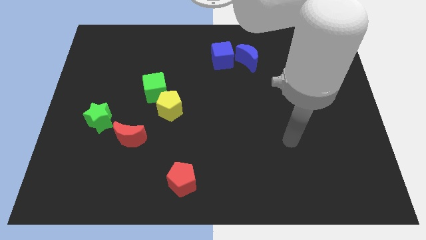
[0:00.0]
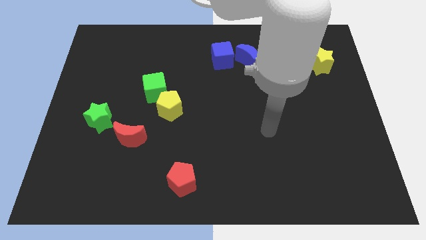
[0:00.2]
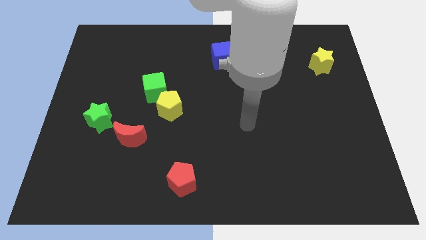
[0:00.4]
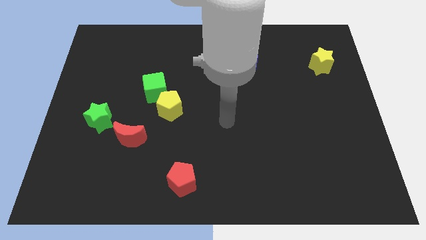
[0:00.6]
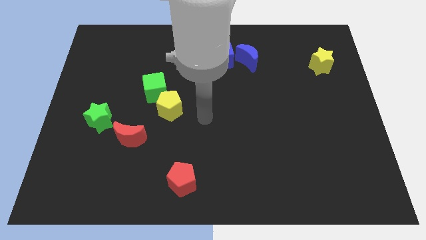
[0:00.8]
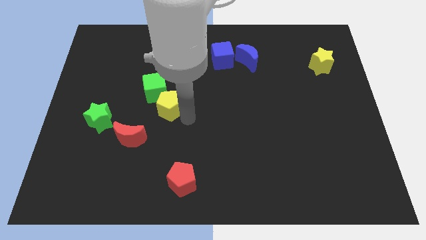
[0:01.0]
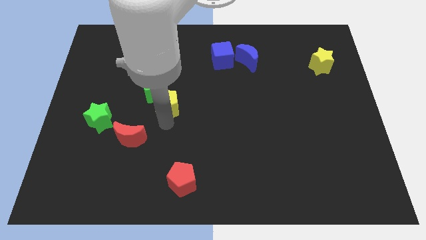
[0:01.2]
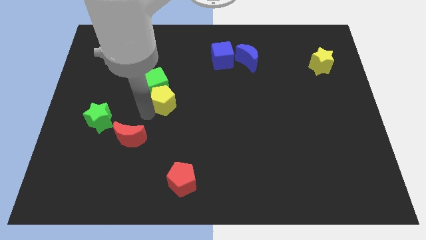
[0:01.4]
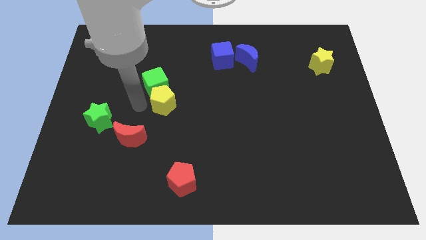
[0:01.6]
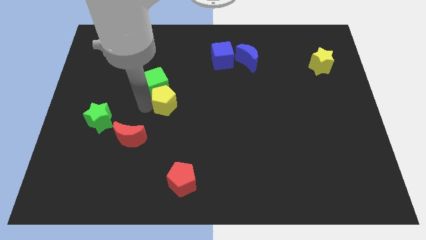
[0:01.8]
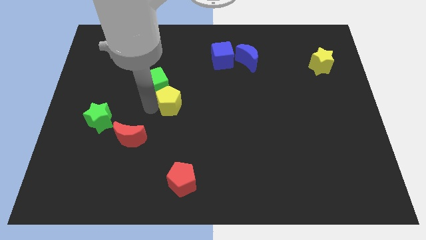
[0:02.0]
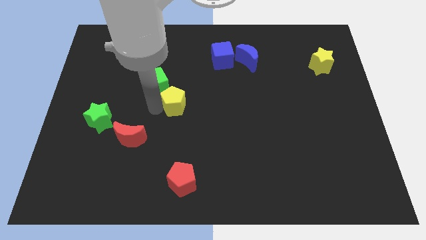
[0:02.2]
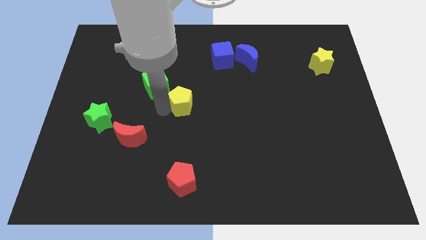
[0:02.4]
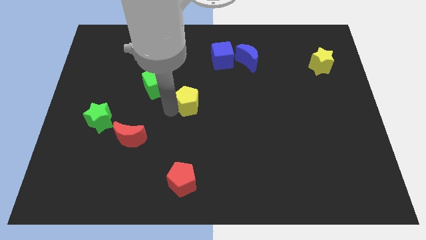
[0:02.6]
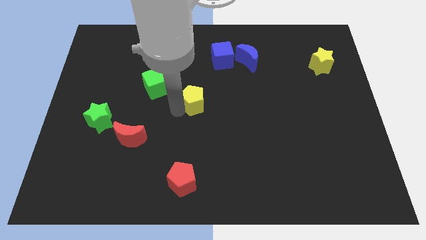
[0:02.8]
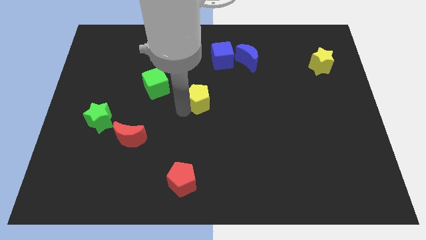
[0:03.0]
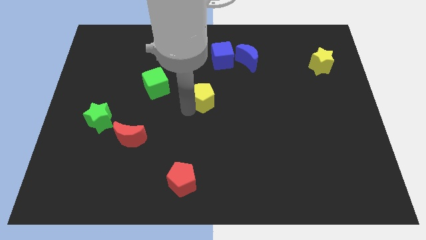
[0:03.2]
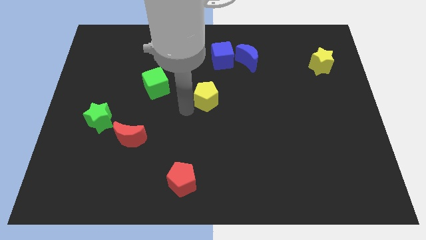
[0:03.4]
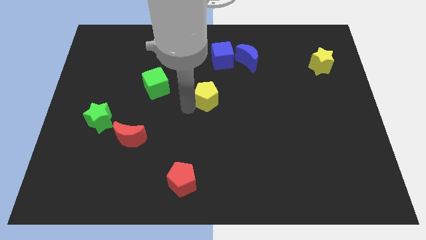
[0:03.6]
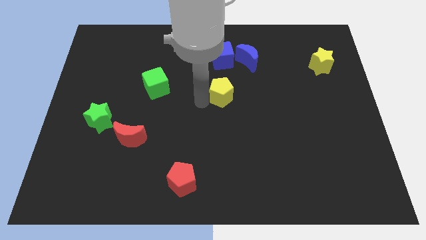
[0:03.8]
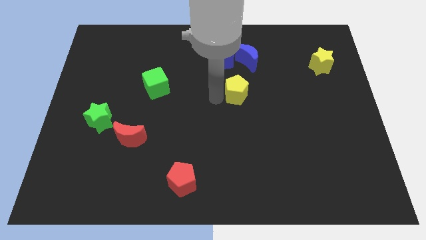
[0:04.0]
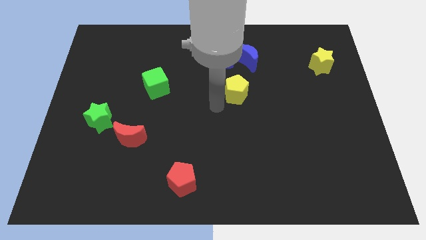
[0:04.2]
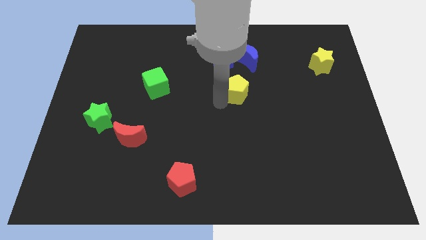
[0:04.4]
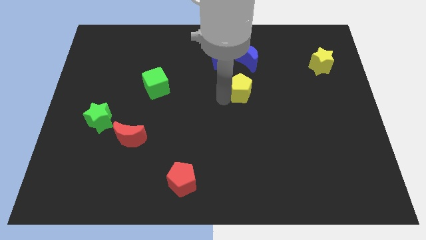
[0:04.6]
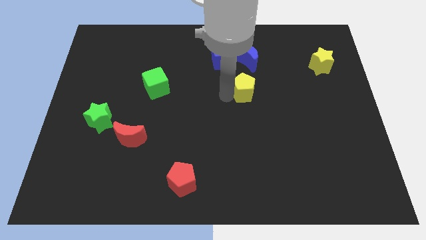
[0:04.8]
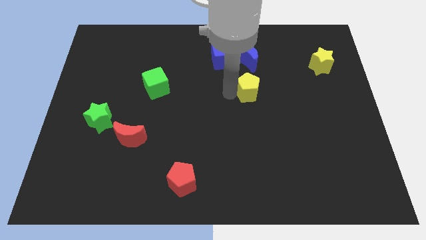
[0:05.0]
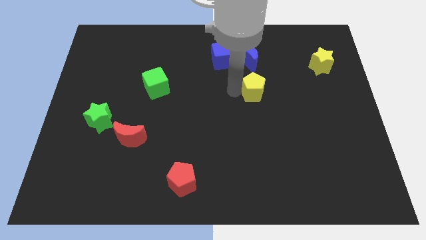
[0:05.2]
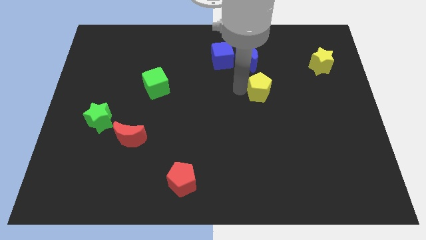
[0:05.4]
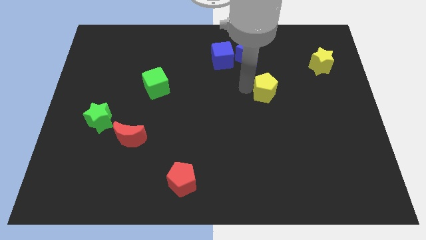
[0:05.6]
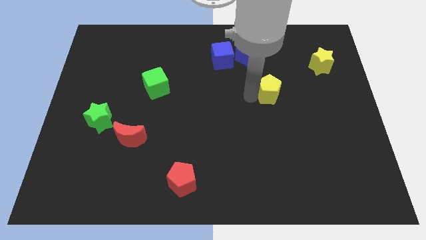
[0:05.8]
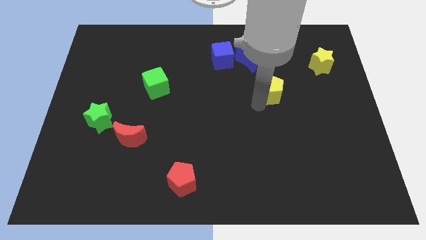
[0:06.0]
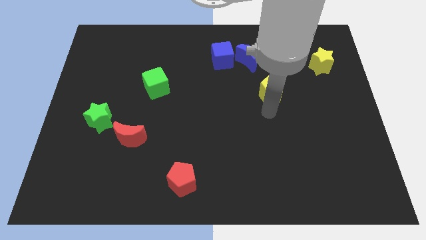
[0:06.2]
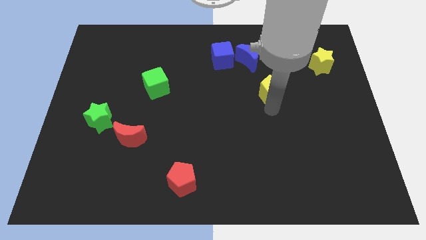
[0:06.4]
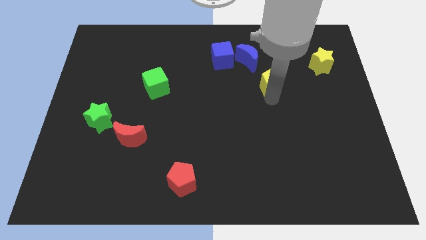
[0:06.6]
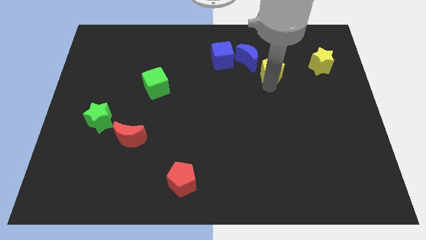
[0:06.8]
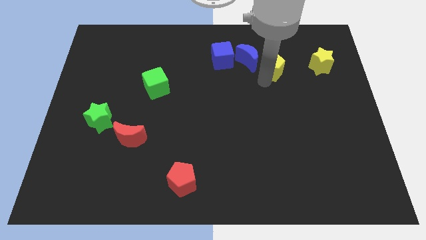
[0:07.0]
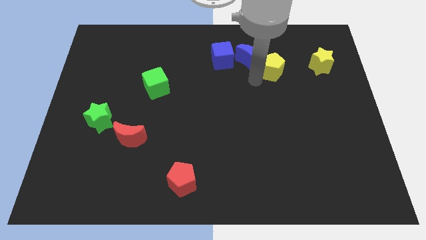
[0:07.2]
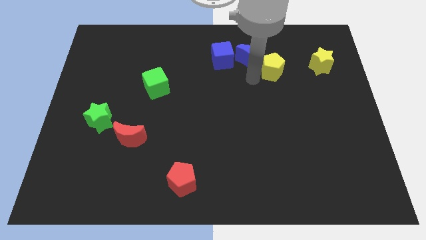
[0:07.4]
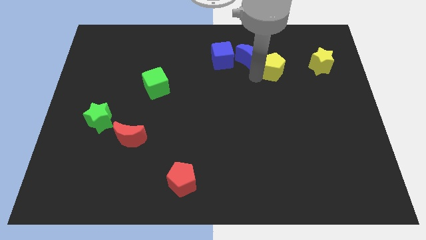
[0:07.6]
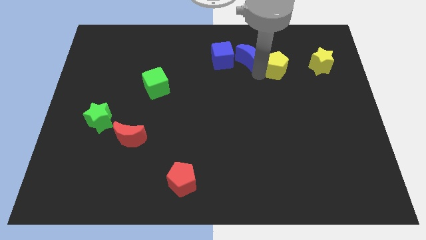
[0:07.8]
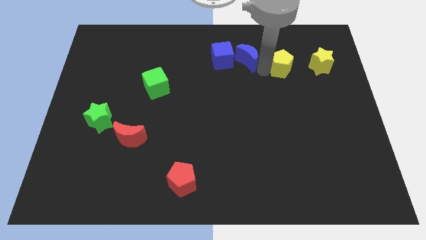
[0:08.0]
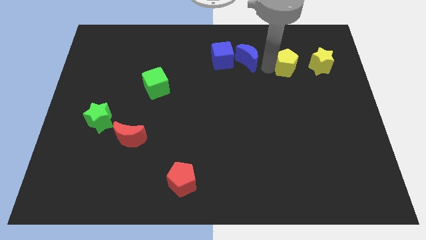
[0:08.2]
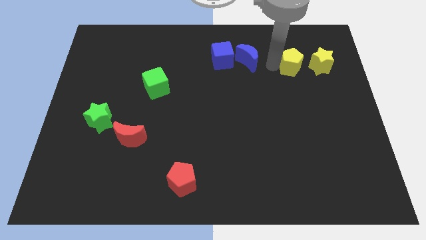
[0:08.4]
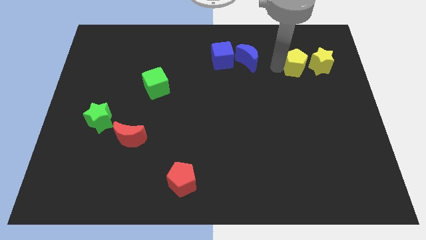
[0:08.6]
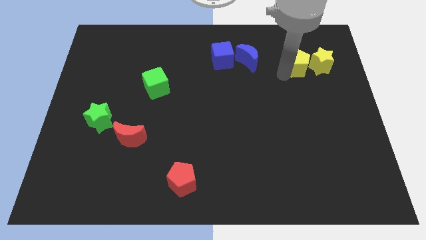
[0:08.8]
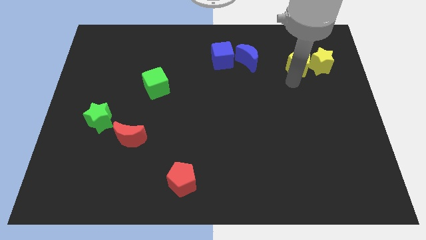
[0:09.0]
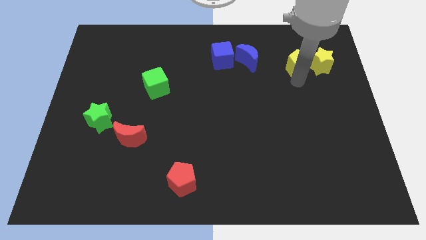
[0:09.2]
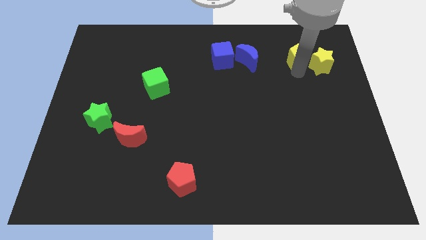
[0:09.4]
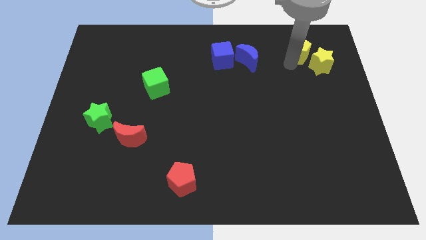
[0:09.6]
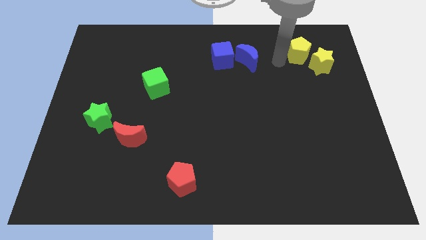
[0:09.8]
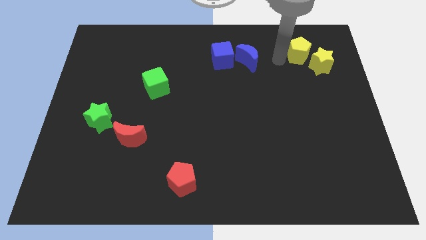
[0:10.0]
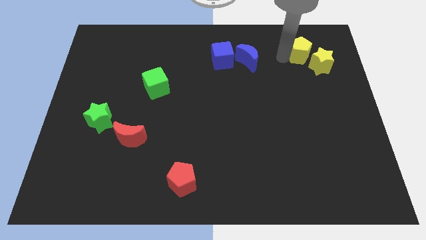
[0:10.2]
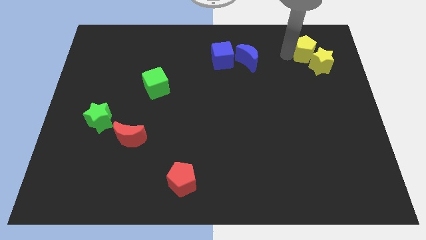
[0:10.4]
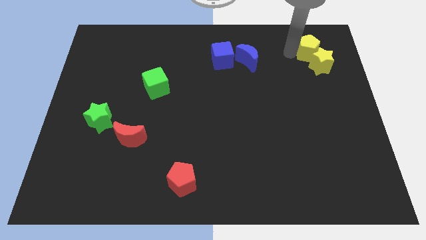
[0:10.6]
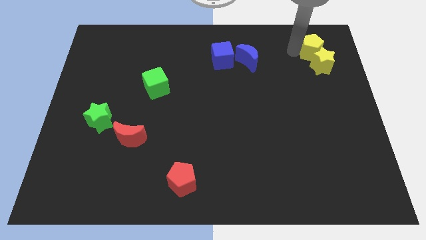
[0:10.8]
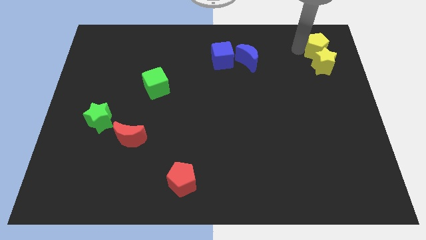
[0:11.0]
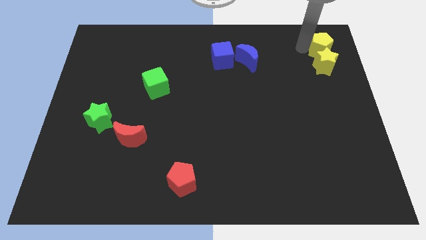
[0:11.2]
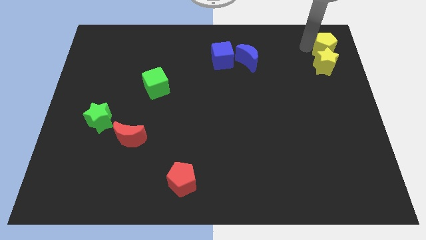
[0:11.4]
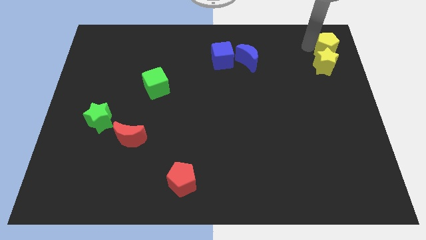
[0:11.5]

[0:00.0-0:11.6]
move the yellow pentagon to the top right
